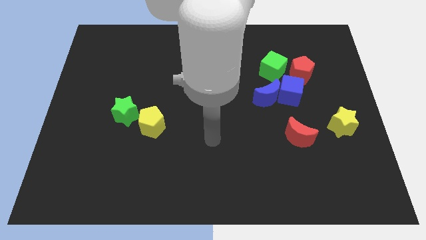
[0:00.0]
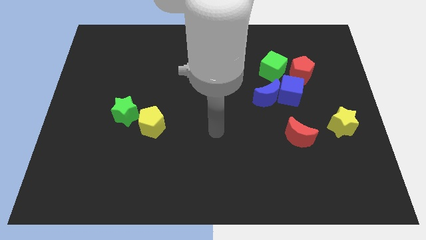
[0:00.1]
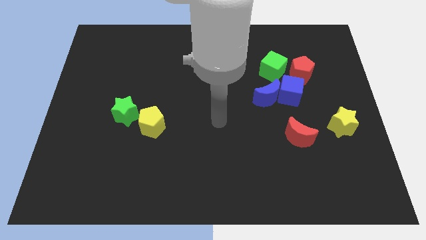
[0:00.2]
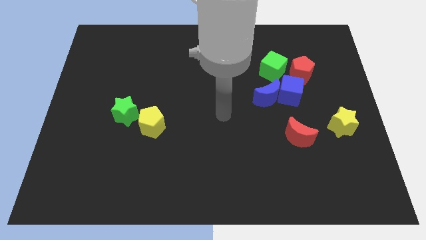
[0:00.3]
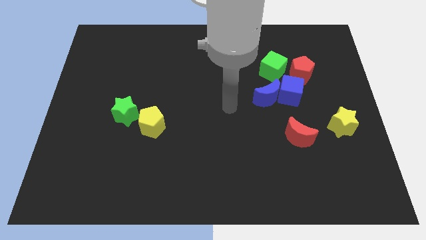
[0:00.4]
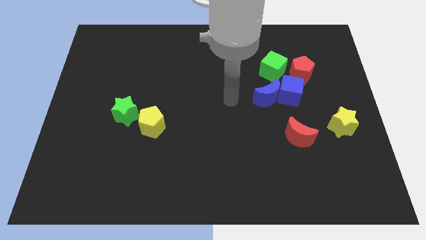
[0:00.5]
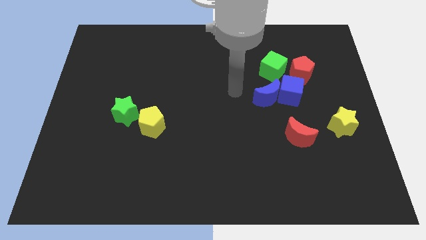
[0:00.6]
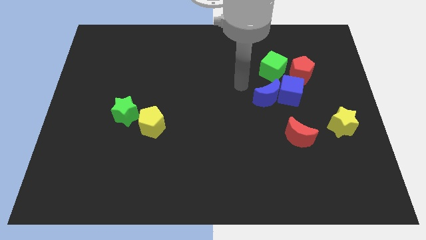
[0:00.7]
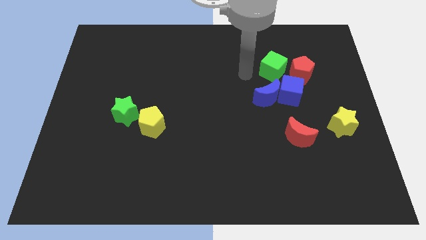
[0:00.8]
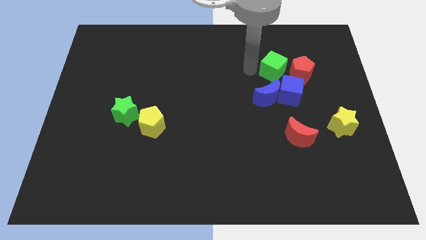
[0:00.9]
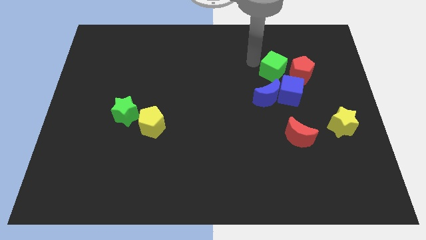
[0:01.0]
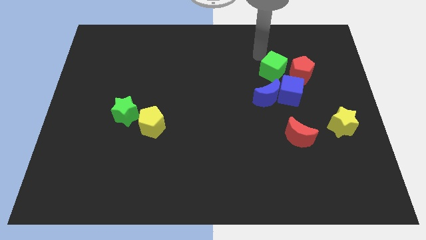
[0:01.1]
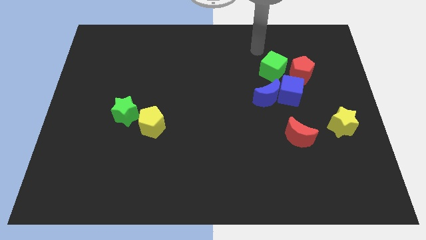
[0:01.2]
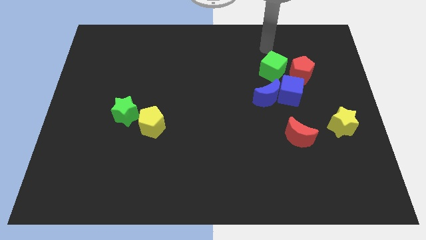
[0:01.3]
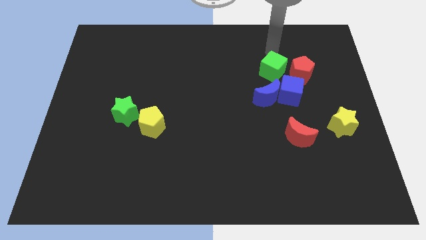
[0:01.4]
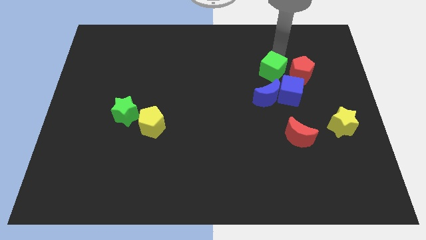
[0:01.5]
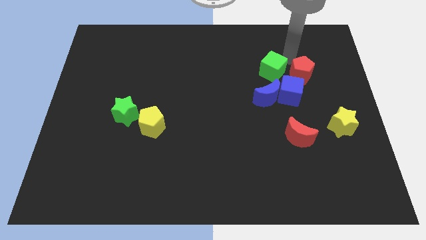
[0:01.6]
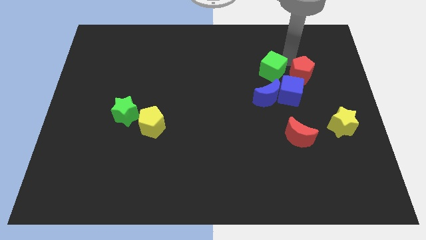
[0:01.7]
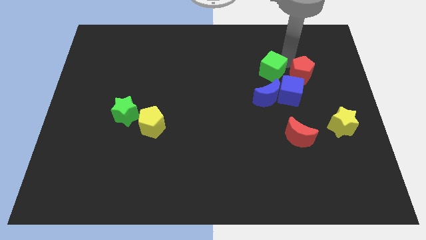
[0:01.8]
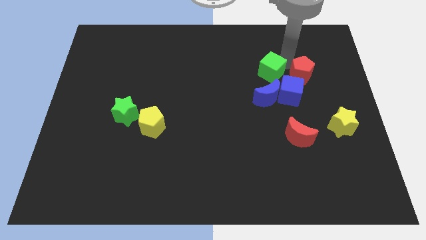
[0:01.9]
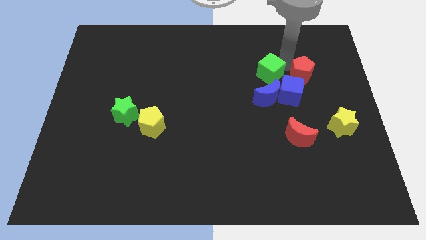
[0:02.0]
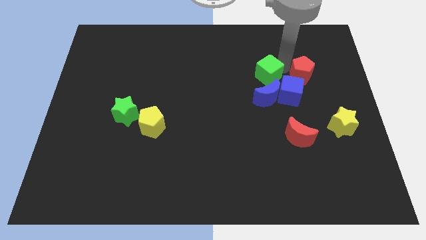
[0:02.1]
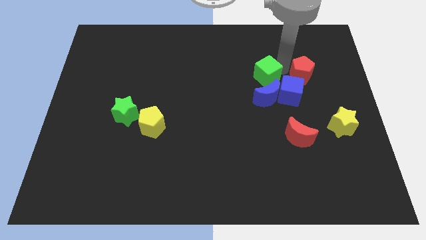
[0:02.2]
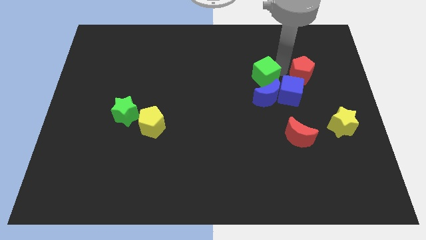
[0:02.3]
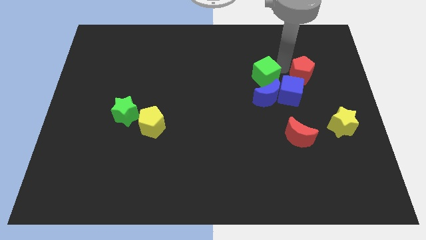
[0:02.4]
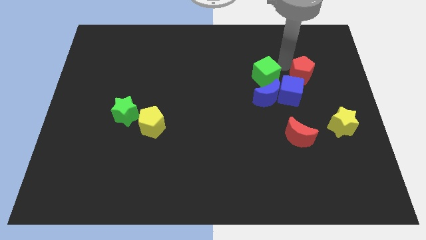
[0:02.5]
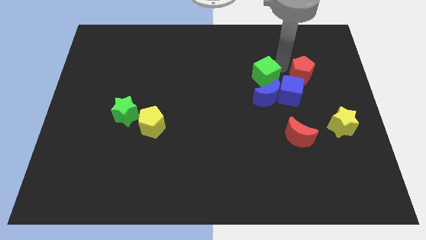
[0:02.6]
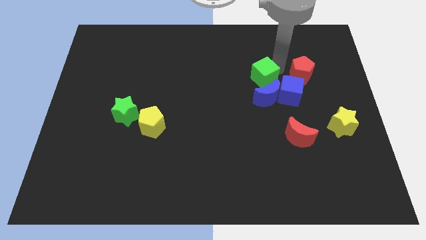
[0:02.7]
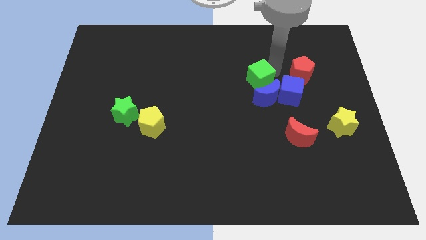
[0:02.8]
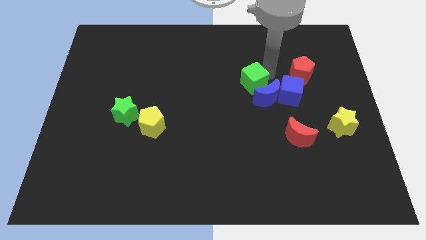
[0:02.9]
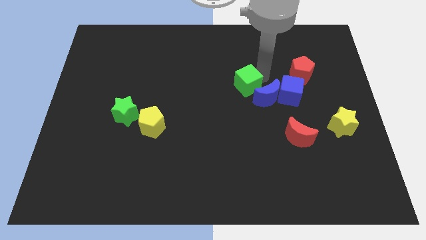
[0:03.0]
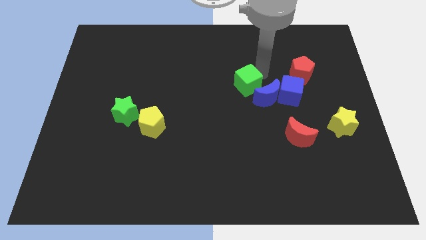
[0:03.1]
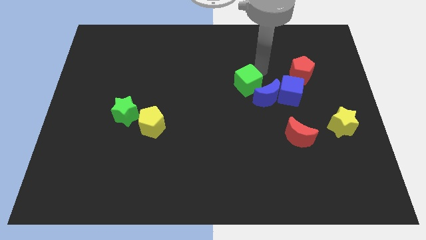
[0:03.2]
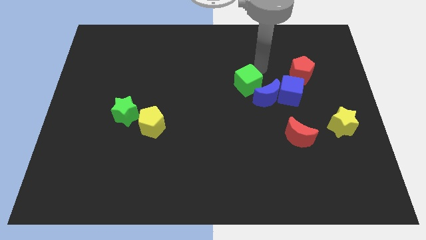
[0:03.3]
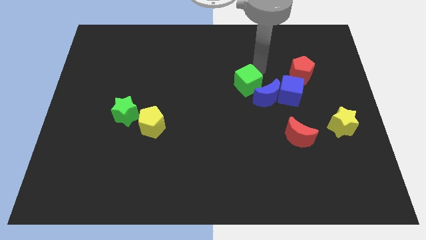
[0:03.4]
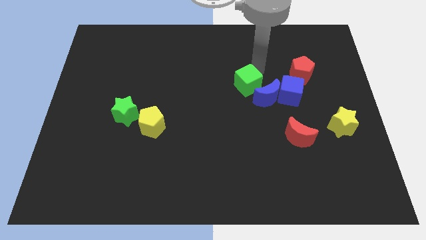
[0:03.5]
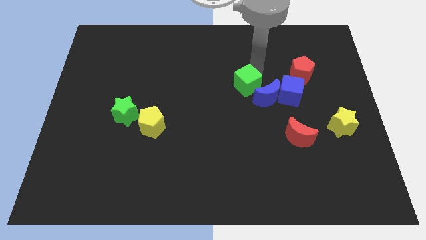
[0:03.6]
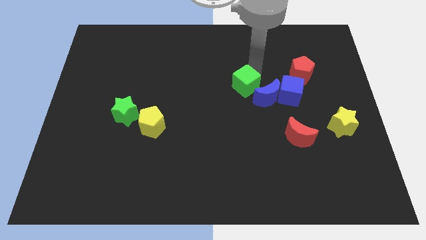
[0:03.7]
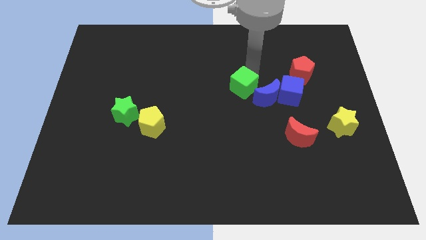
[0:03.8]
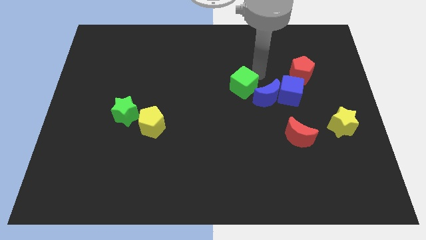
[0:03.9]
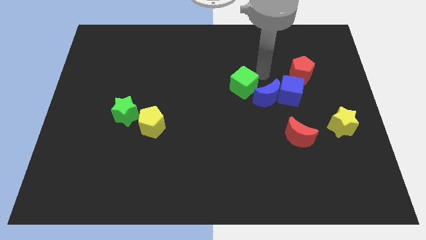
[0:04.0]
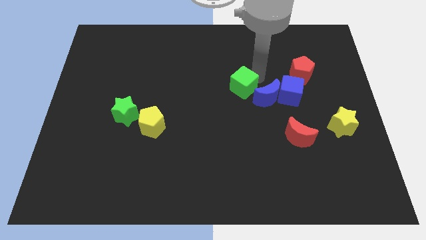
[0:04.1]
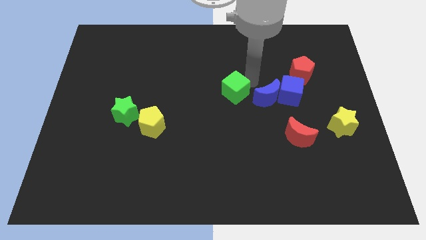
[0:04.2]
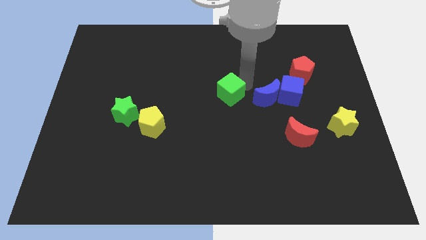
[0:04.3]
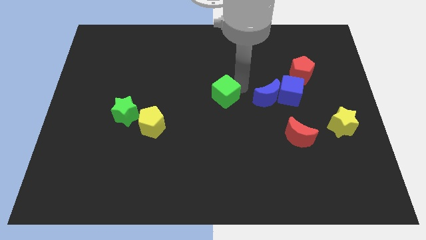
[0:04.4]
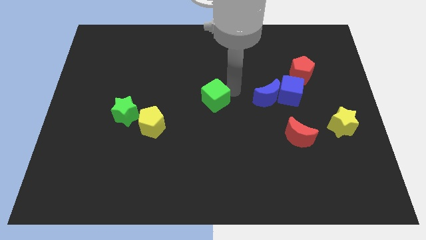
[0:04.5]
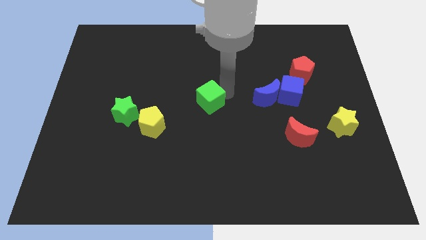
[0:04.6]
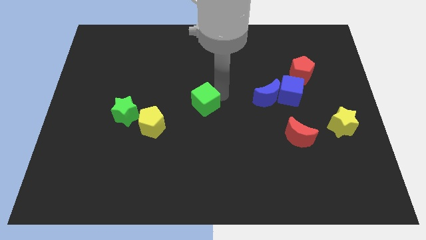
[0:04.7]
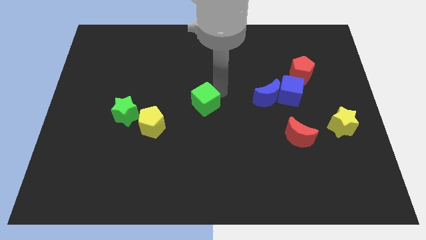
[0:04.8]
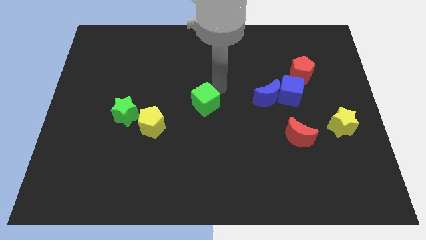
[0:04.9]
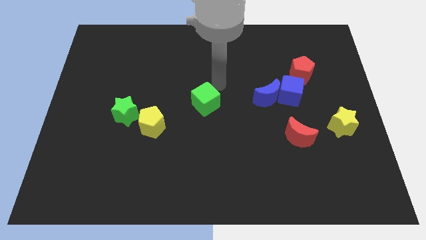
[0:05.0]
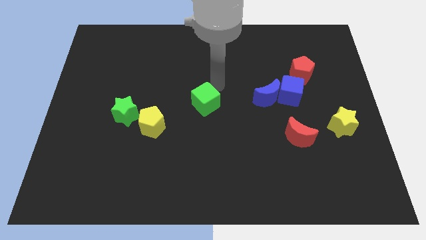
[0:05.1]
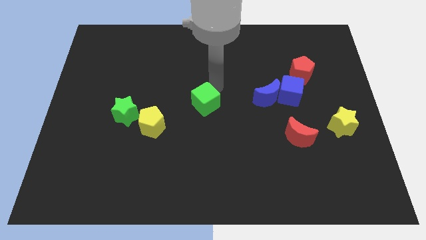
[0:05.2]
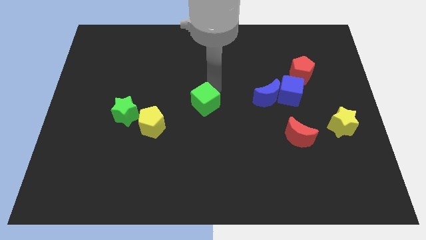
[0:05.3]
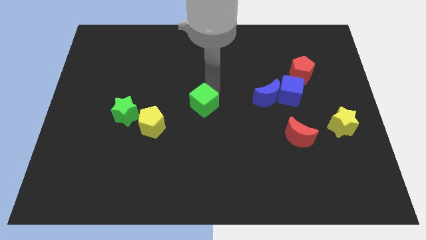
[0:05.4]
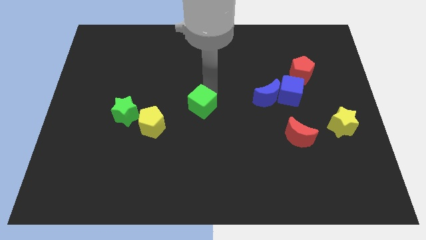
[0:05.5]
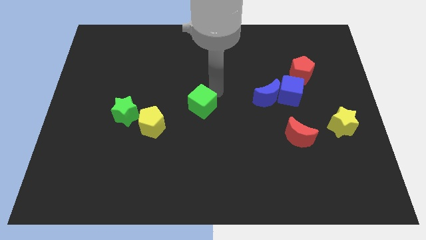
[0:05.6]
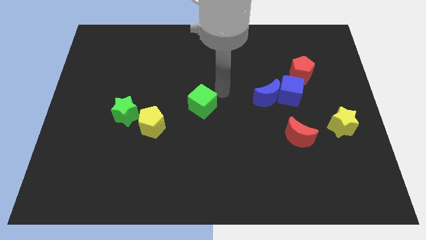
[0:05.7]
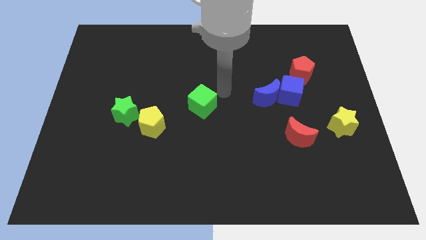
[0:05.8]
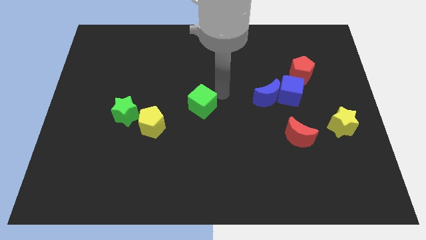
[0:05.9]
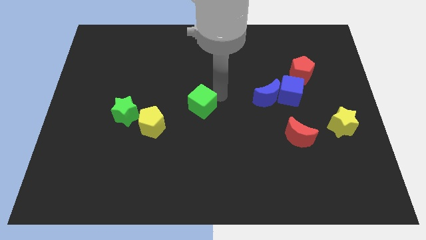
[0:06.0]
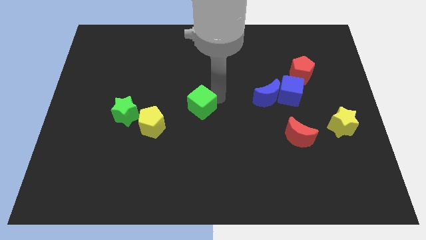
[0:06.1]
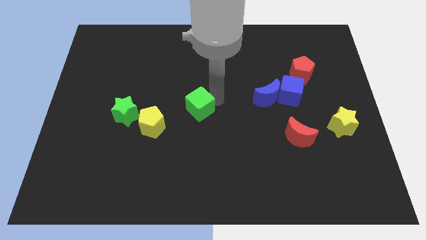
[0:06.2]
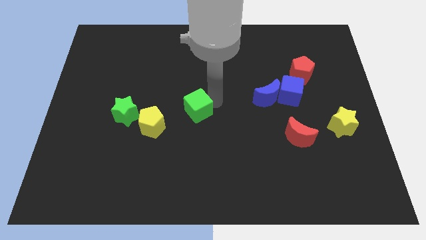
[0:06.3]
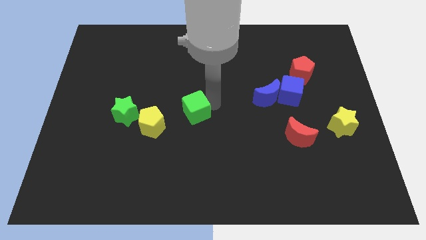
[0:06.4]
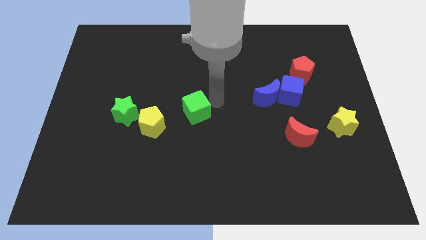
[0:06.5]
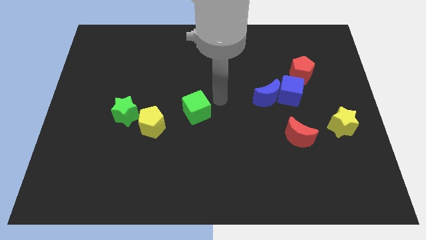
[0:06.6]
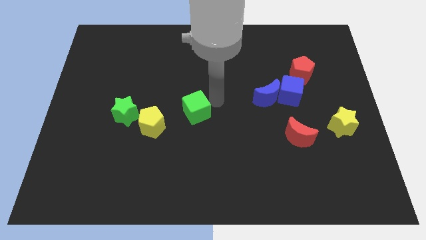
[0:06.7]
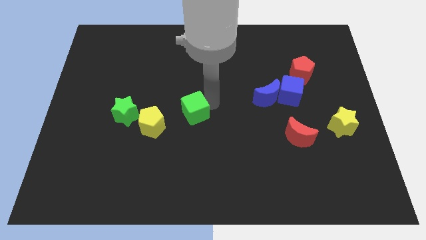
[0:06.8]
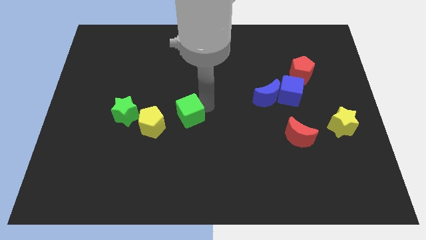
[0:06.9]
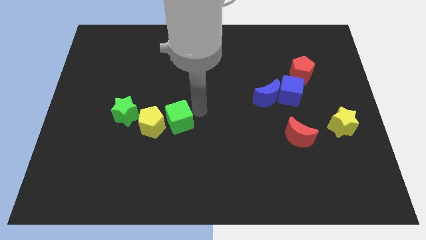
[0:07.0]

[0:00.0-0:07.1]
slide the green cube close to the yellow pentagon
